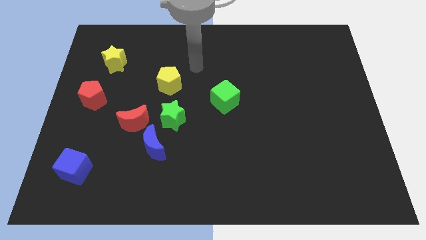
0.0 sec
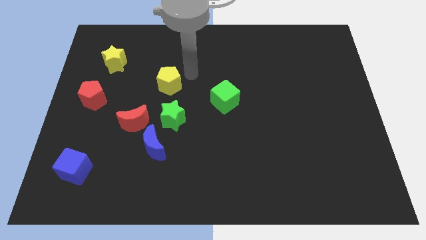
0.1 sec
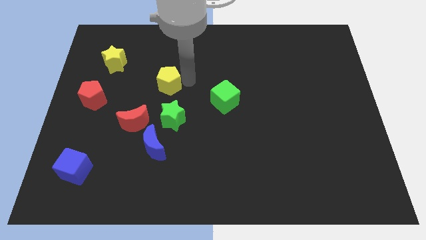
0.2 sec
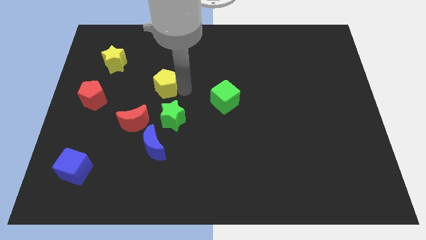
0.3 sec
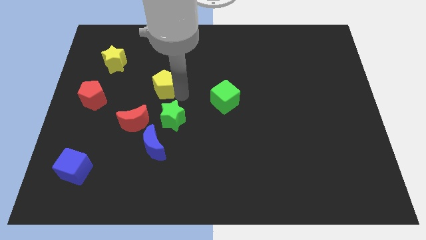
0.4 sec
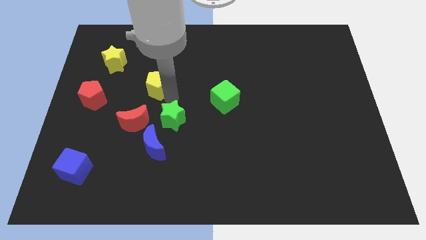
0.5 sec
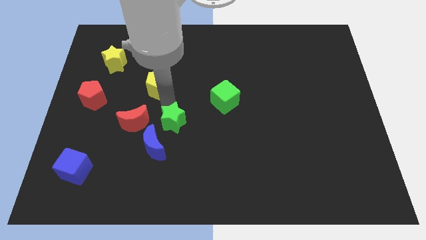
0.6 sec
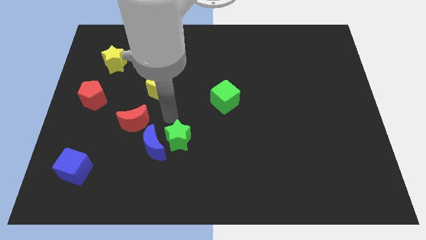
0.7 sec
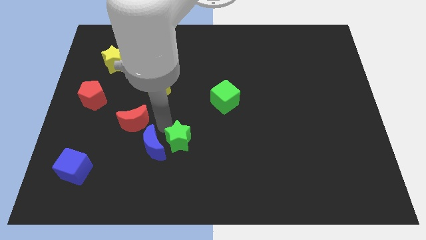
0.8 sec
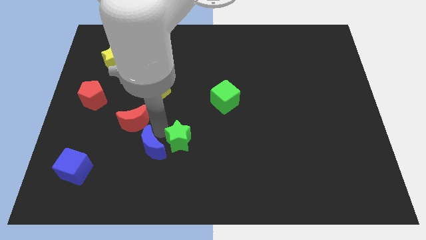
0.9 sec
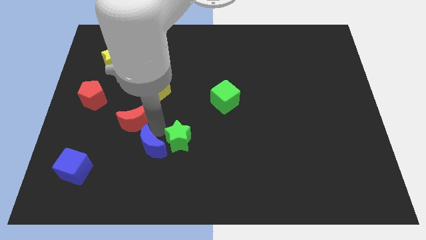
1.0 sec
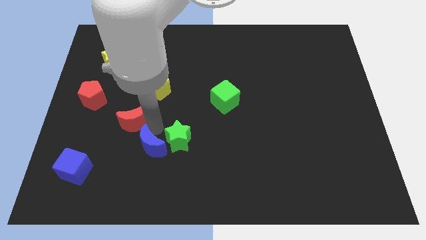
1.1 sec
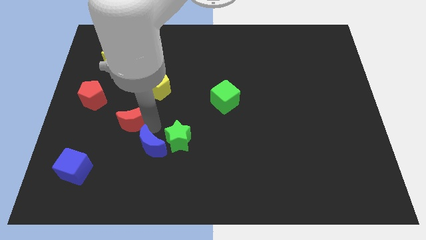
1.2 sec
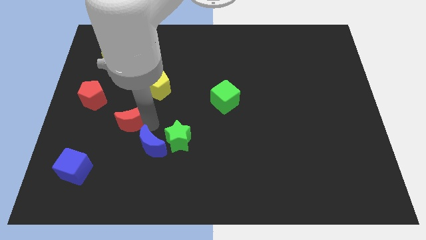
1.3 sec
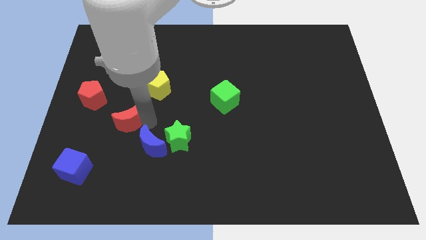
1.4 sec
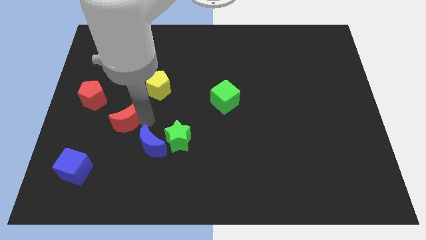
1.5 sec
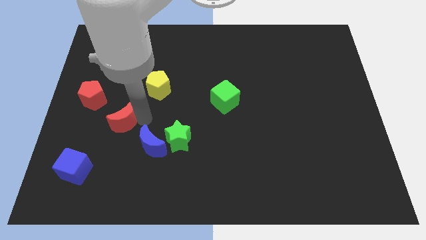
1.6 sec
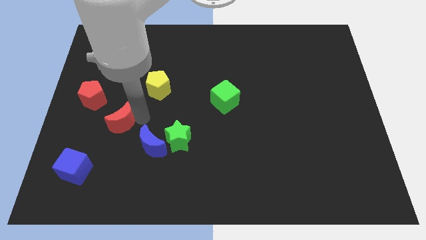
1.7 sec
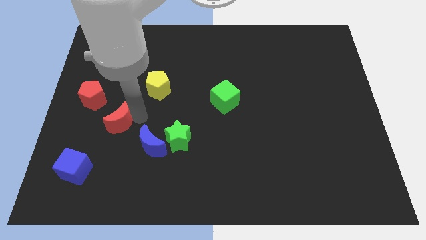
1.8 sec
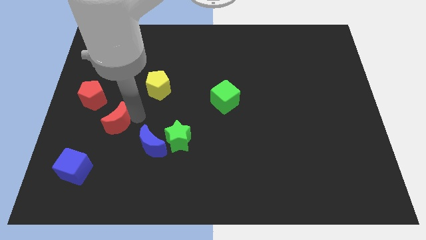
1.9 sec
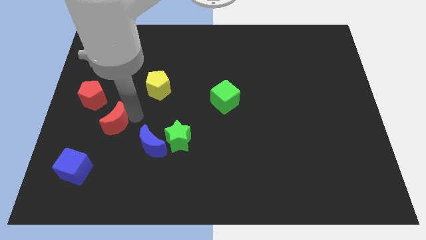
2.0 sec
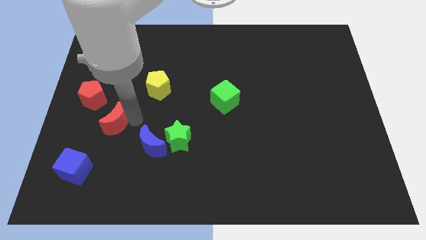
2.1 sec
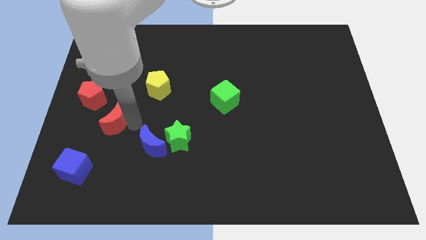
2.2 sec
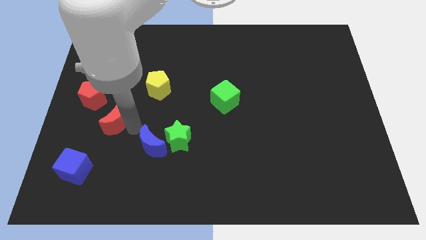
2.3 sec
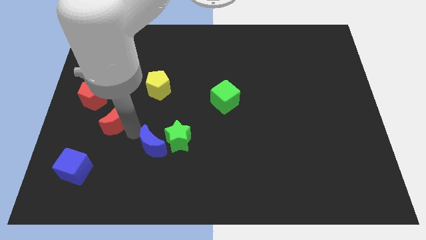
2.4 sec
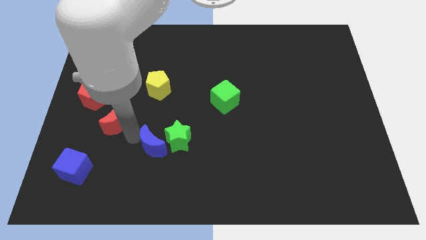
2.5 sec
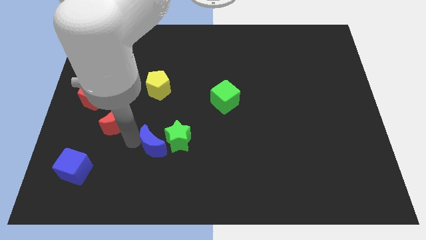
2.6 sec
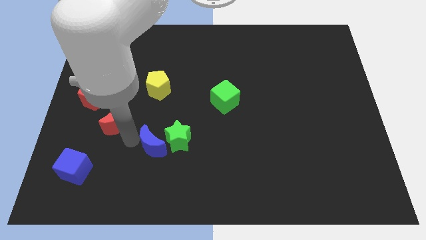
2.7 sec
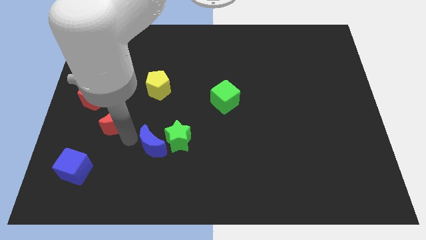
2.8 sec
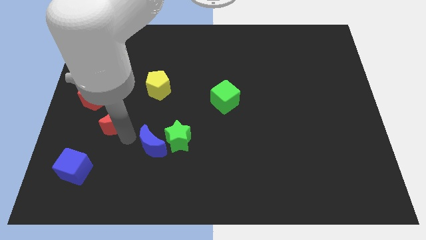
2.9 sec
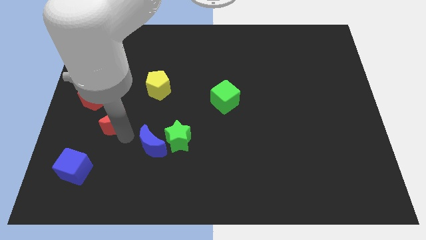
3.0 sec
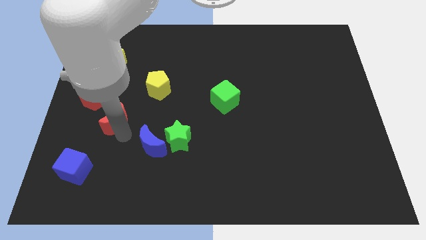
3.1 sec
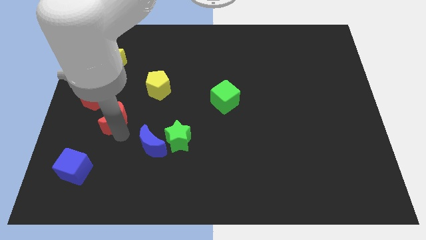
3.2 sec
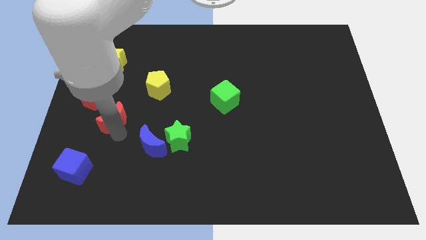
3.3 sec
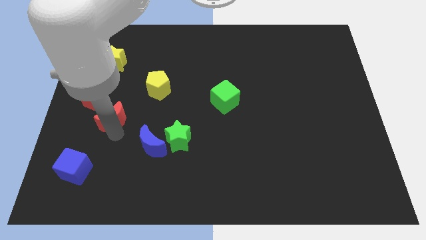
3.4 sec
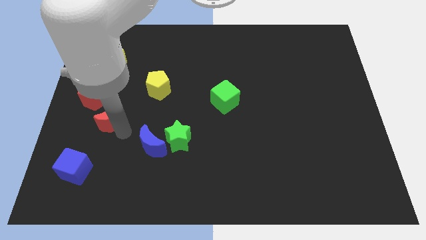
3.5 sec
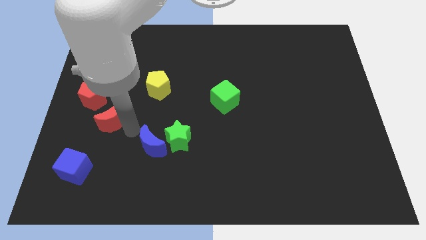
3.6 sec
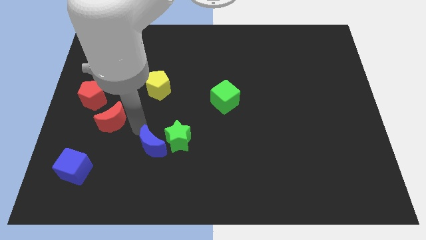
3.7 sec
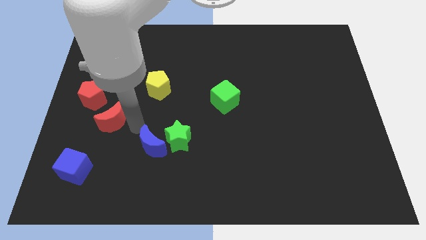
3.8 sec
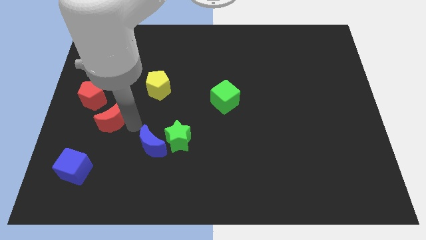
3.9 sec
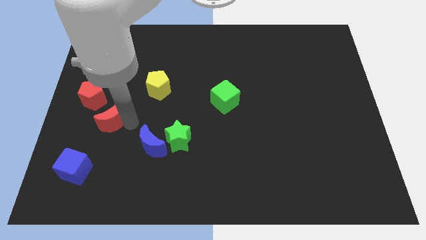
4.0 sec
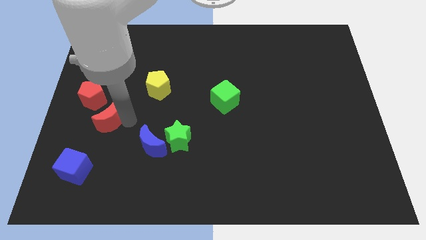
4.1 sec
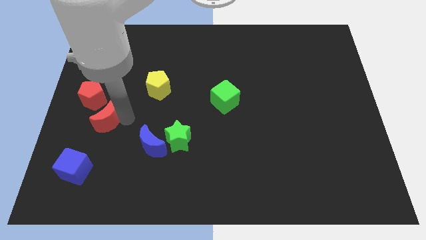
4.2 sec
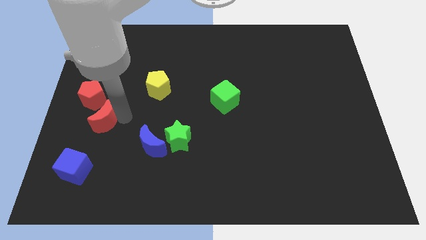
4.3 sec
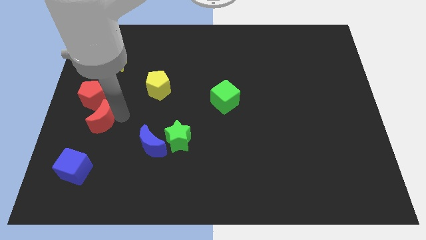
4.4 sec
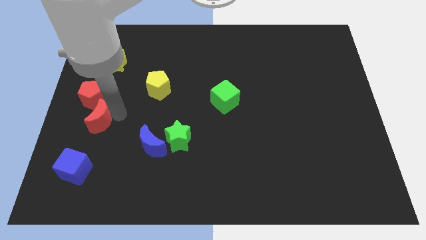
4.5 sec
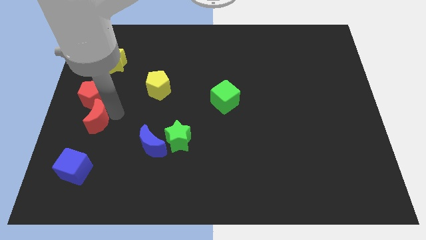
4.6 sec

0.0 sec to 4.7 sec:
slide the red moon to the left side of the board

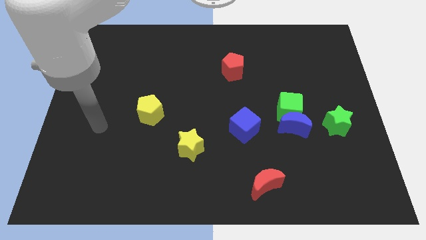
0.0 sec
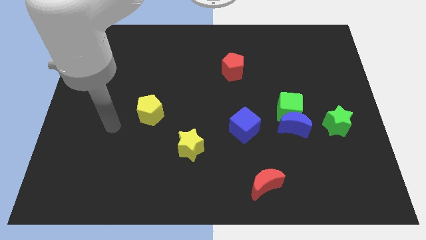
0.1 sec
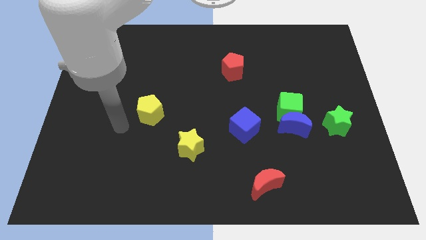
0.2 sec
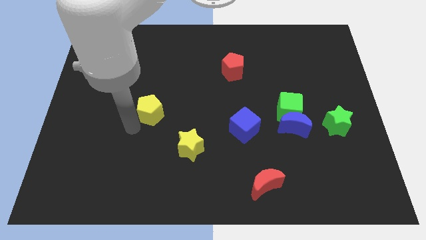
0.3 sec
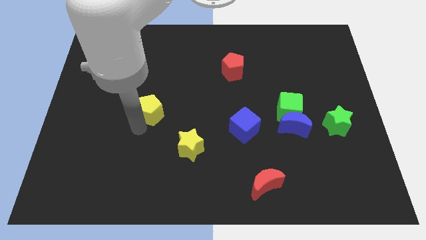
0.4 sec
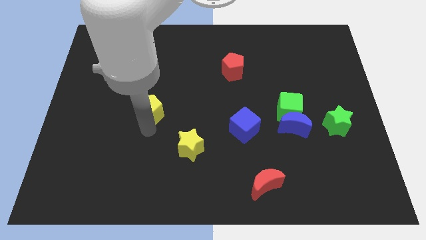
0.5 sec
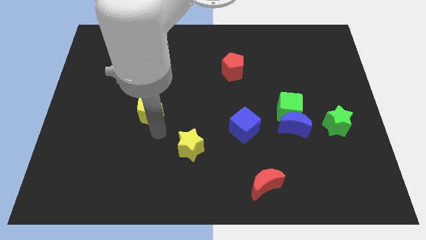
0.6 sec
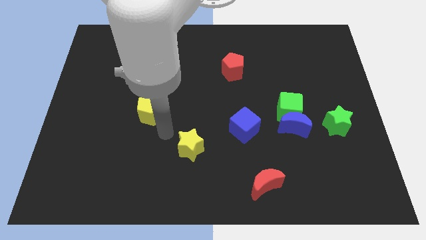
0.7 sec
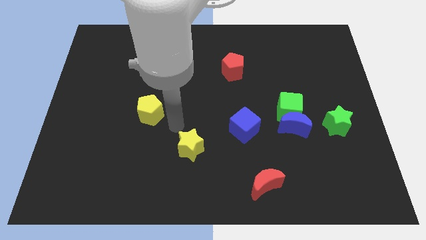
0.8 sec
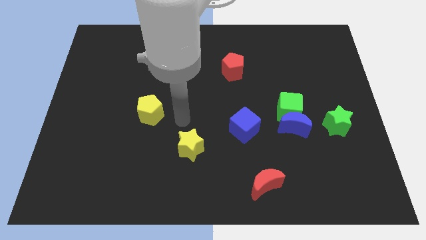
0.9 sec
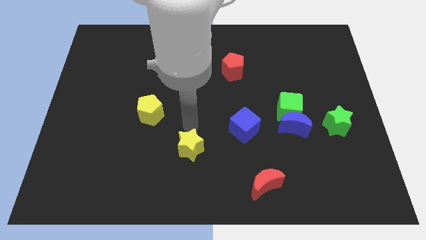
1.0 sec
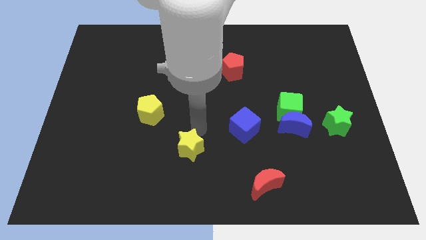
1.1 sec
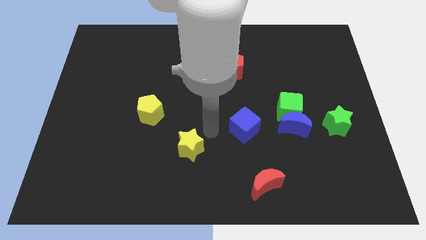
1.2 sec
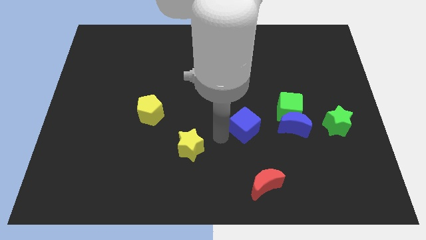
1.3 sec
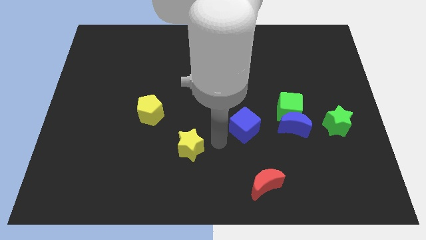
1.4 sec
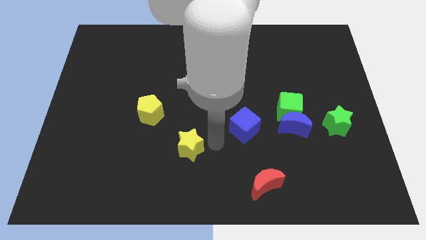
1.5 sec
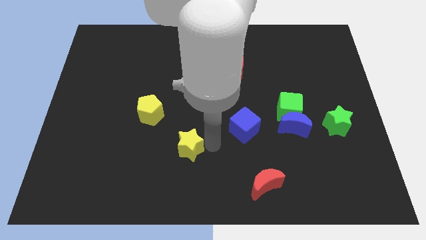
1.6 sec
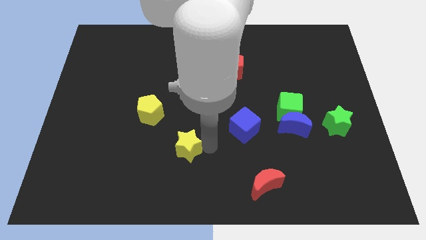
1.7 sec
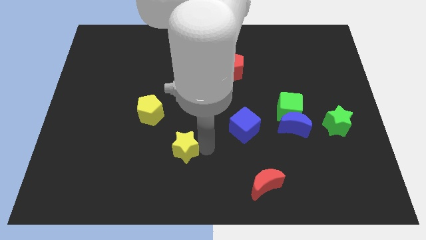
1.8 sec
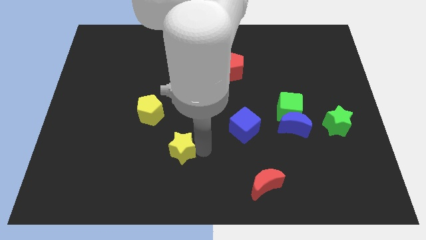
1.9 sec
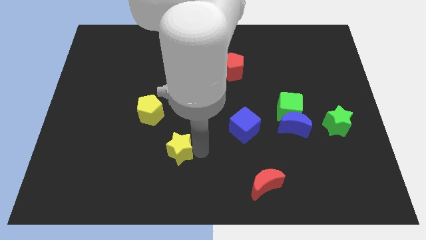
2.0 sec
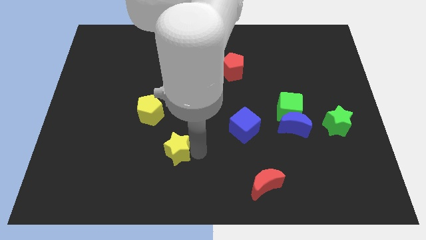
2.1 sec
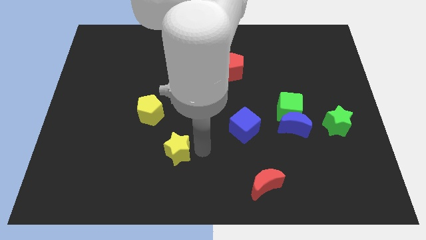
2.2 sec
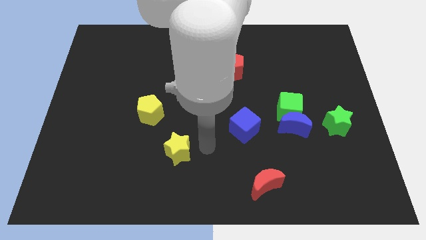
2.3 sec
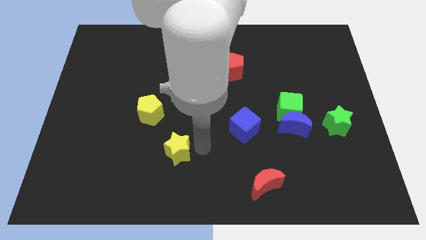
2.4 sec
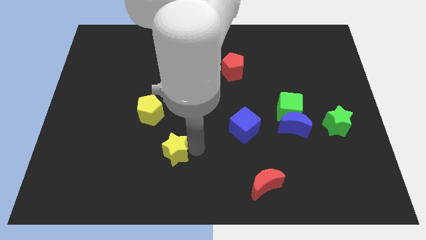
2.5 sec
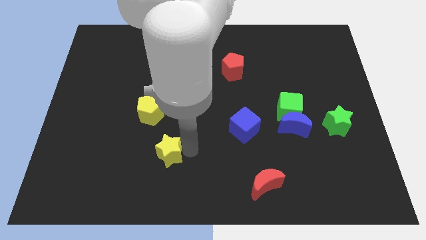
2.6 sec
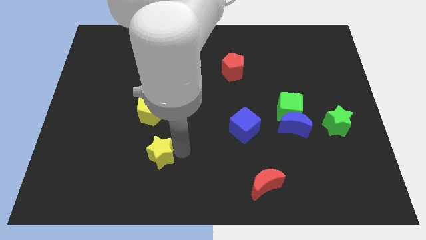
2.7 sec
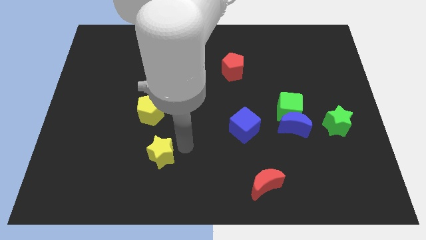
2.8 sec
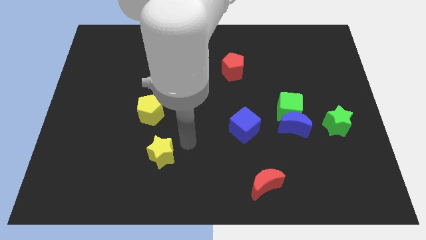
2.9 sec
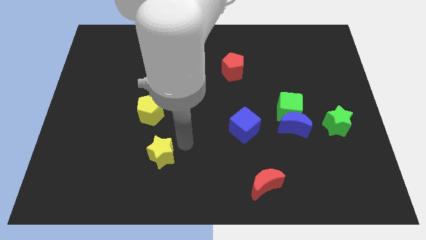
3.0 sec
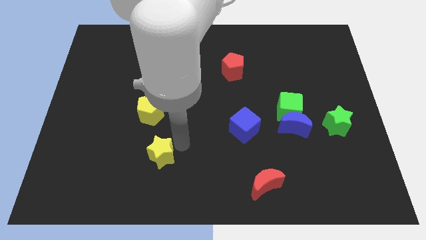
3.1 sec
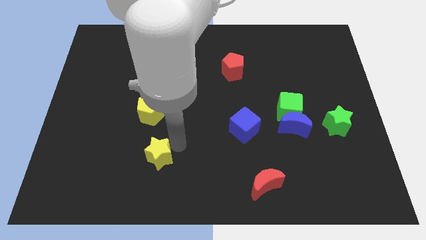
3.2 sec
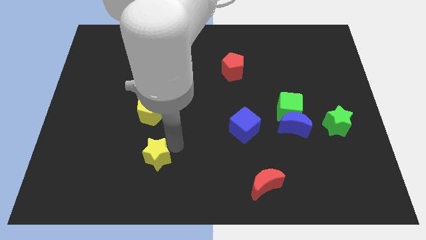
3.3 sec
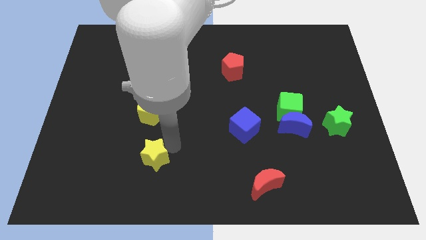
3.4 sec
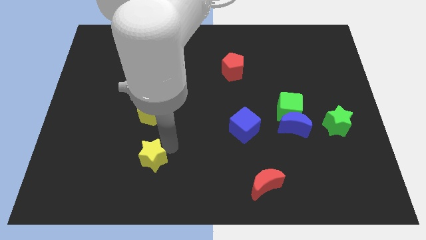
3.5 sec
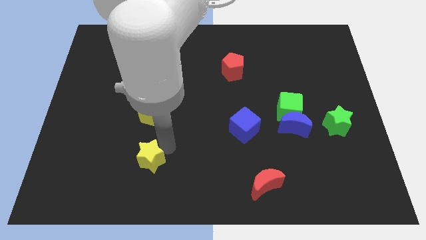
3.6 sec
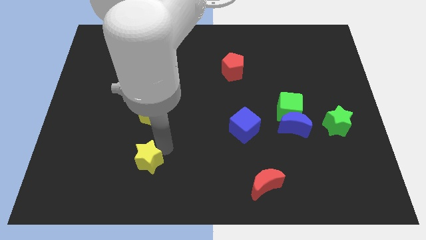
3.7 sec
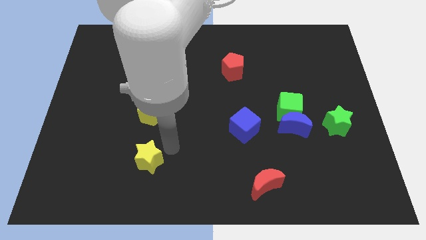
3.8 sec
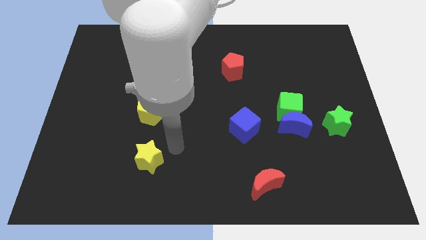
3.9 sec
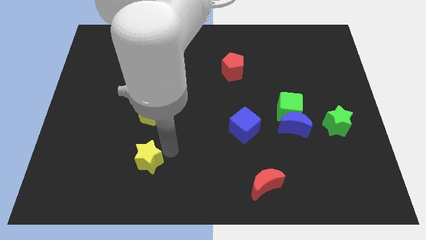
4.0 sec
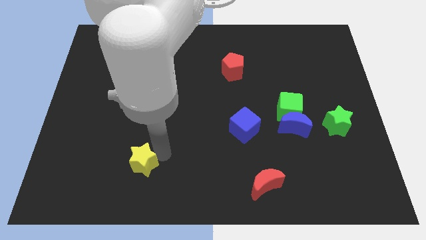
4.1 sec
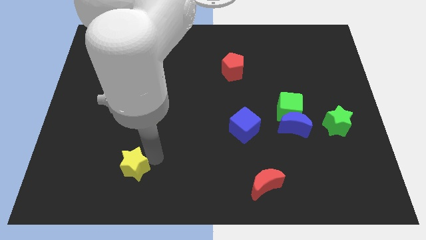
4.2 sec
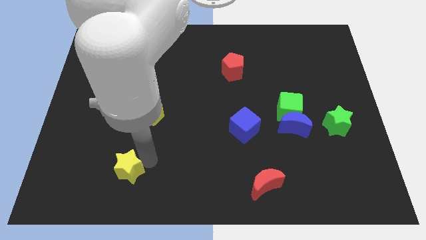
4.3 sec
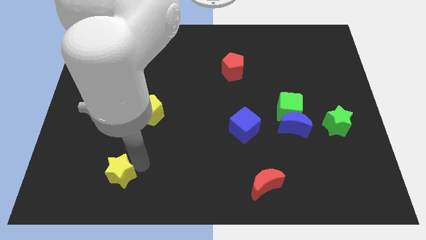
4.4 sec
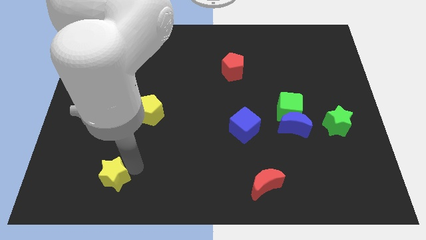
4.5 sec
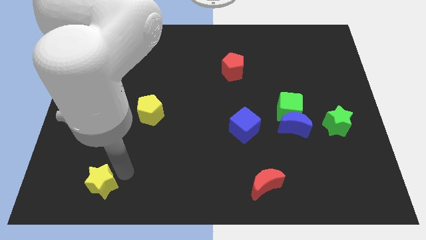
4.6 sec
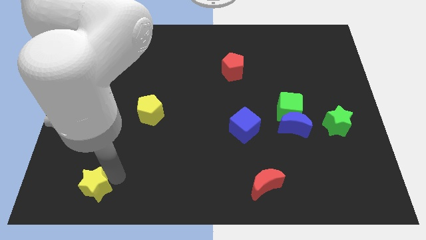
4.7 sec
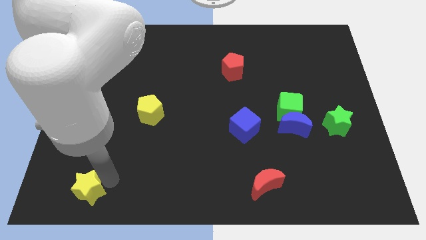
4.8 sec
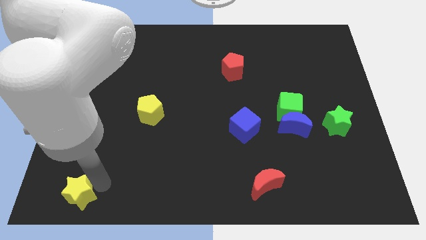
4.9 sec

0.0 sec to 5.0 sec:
move the yellow star to the bottom left
